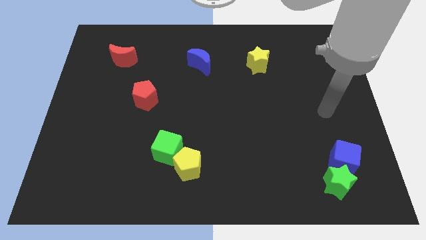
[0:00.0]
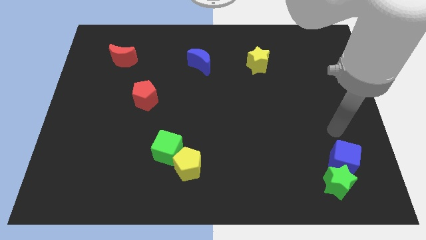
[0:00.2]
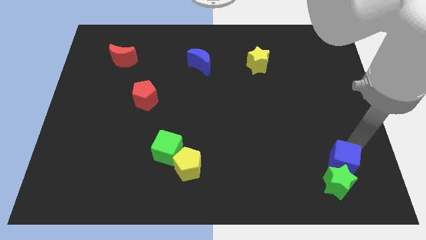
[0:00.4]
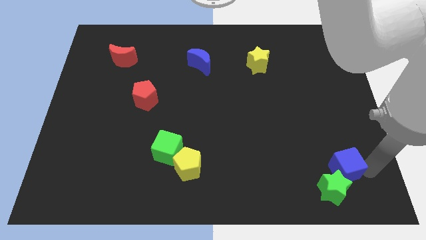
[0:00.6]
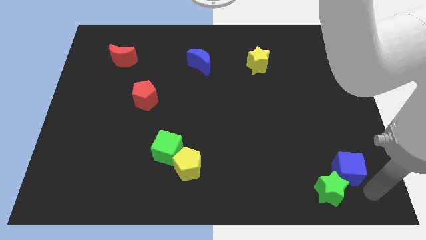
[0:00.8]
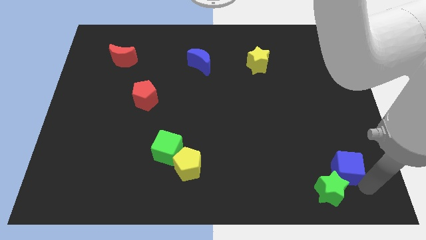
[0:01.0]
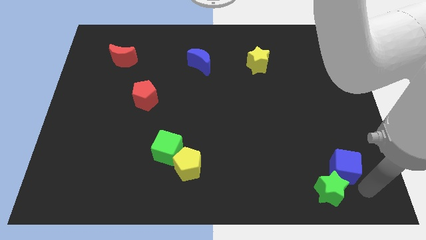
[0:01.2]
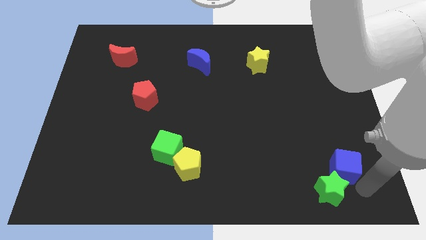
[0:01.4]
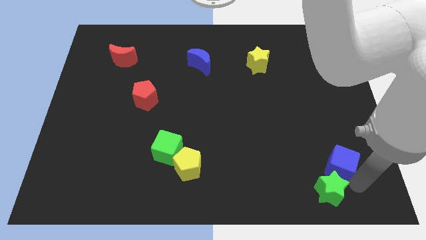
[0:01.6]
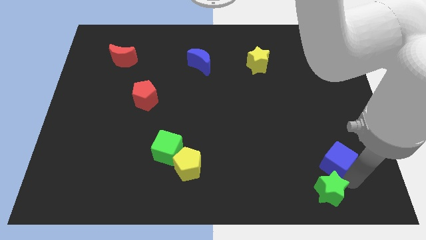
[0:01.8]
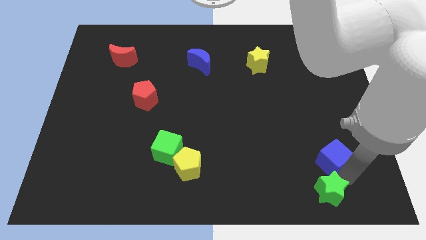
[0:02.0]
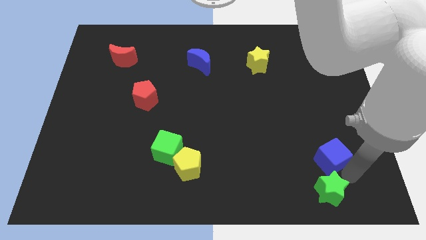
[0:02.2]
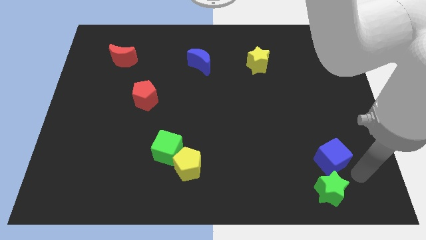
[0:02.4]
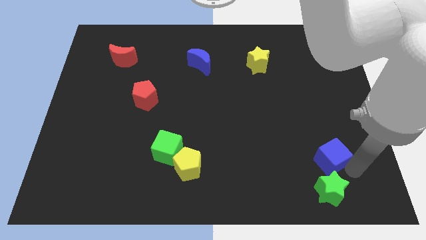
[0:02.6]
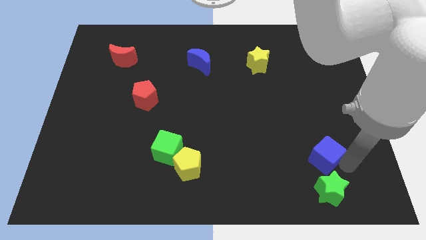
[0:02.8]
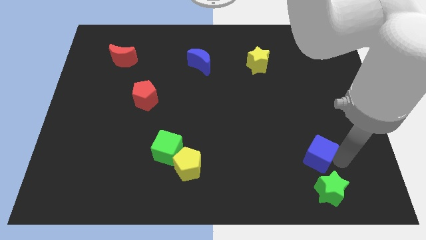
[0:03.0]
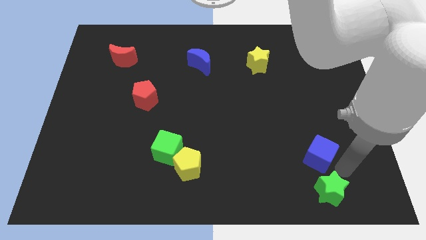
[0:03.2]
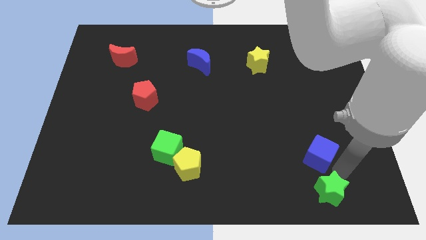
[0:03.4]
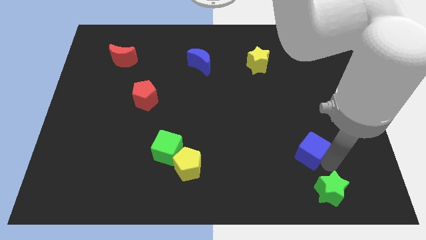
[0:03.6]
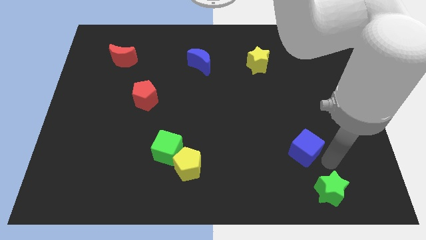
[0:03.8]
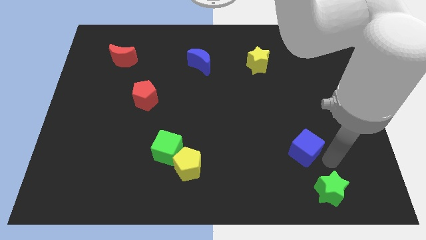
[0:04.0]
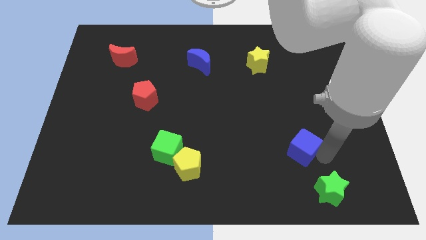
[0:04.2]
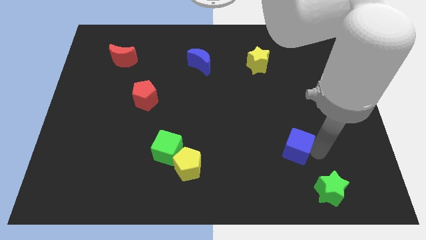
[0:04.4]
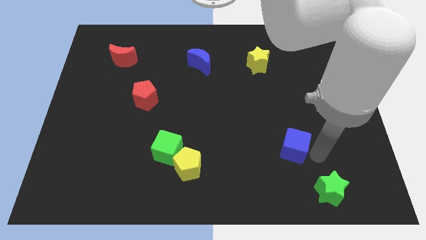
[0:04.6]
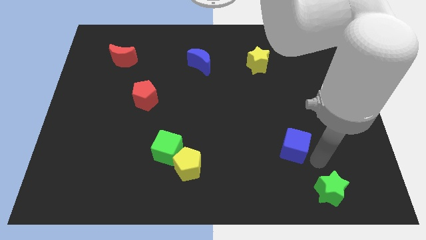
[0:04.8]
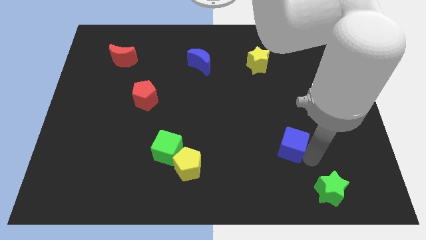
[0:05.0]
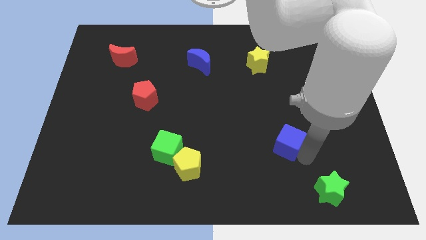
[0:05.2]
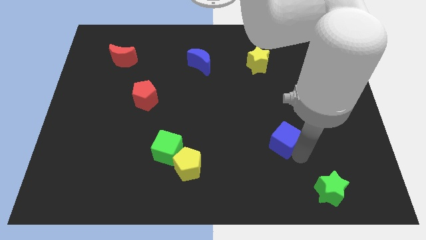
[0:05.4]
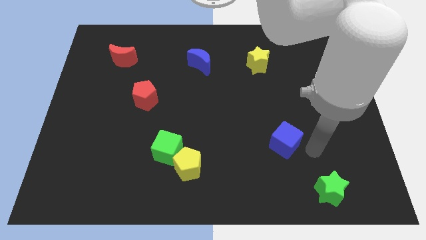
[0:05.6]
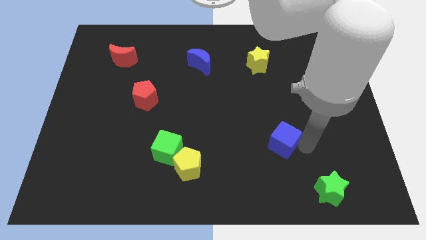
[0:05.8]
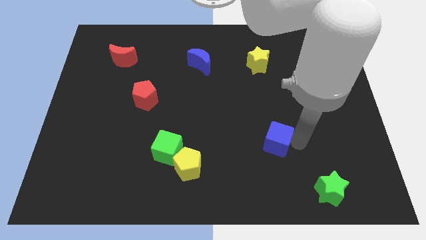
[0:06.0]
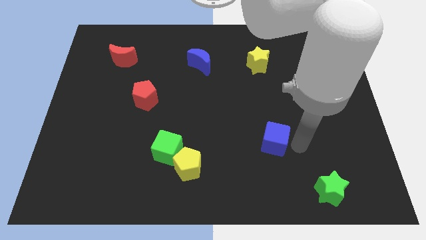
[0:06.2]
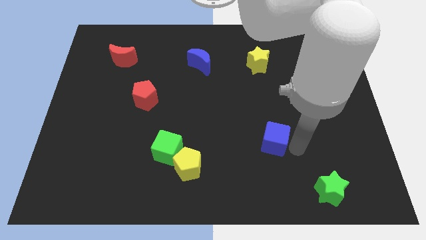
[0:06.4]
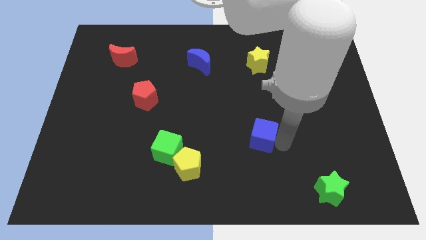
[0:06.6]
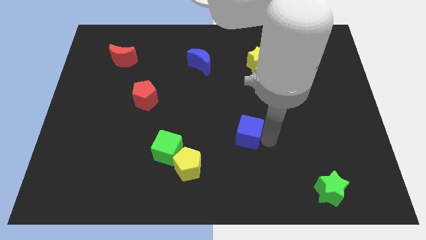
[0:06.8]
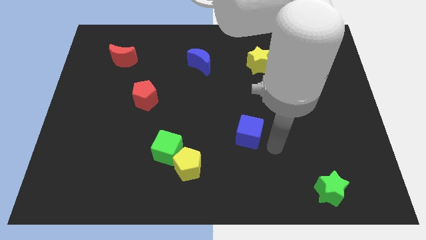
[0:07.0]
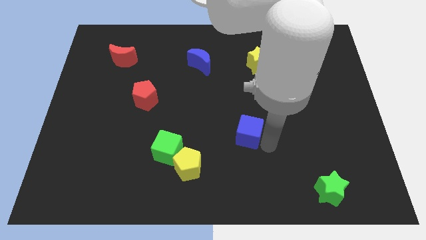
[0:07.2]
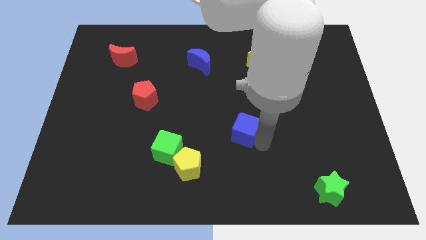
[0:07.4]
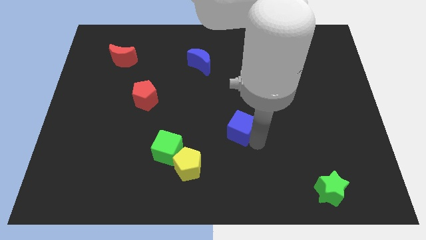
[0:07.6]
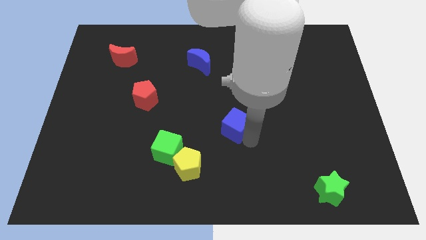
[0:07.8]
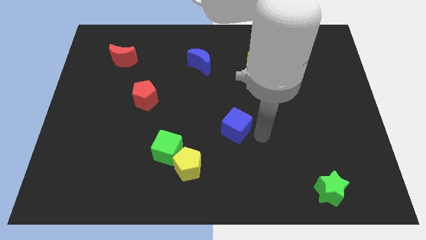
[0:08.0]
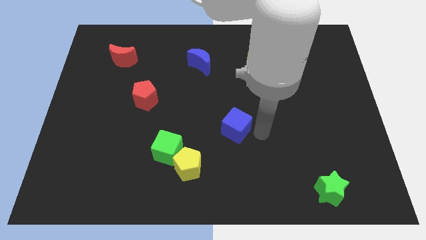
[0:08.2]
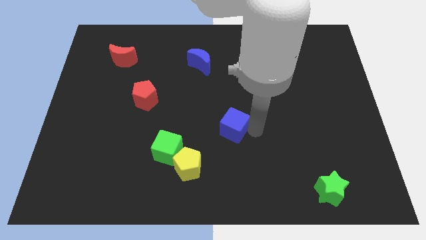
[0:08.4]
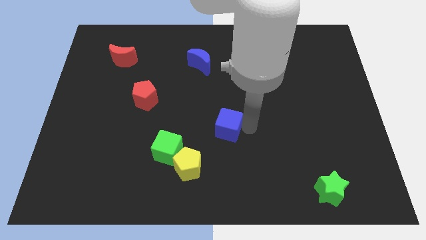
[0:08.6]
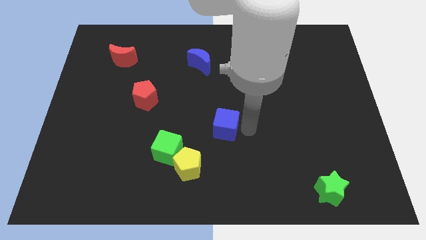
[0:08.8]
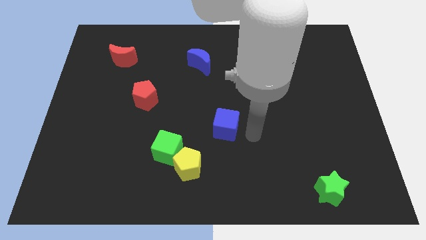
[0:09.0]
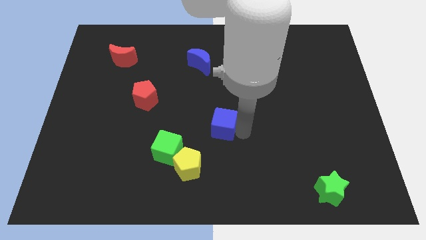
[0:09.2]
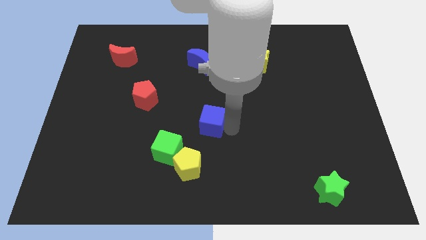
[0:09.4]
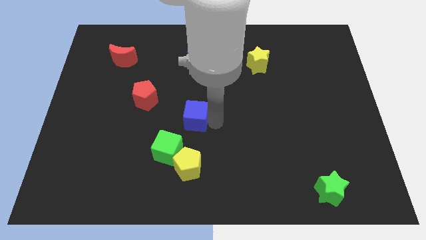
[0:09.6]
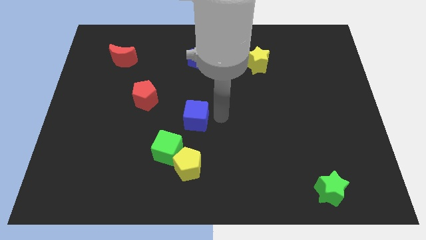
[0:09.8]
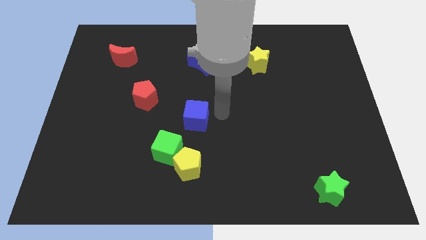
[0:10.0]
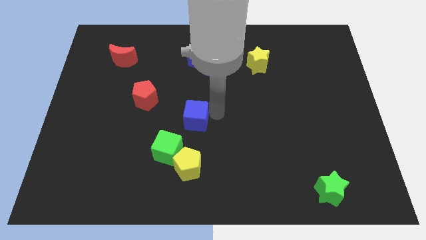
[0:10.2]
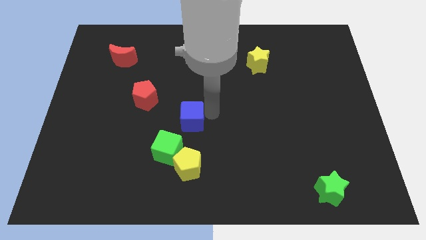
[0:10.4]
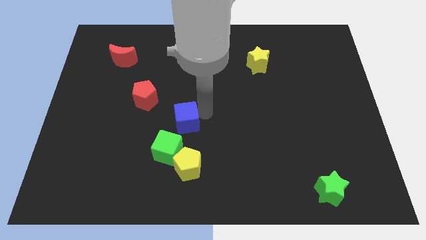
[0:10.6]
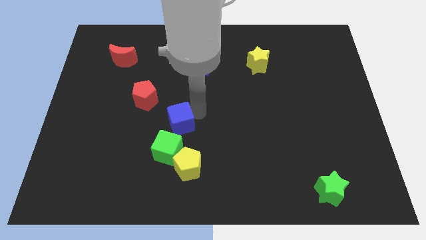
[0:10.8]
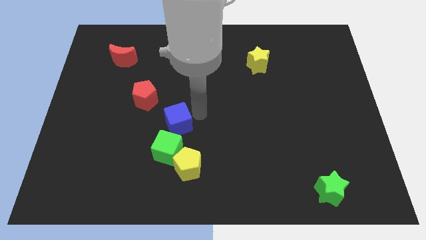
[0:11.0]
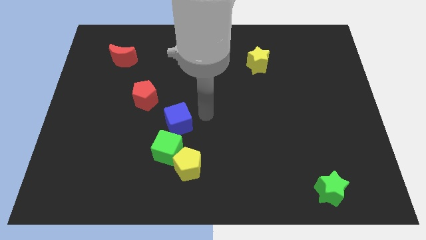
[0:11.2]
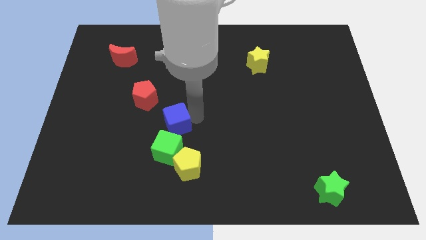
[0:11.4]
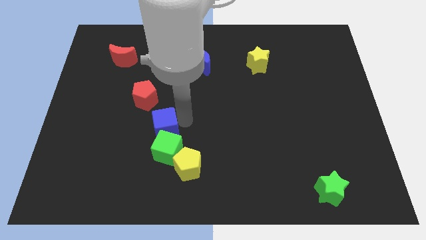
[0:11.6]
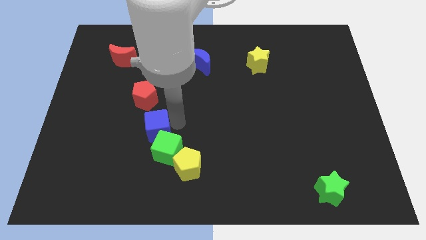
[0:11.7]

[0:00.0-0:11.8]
put the blue cube to the bottom side of the red pentagon
